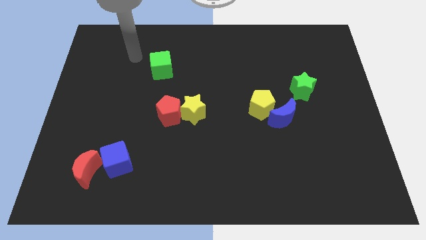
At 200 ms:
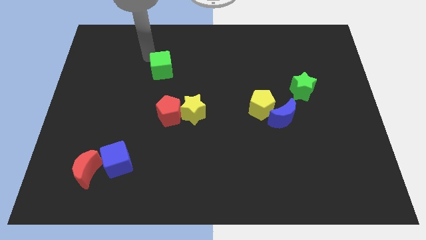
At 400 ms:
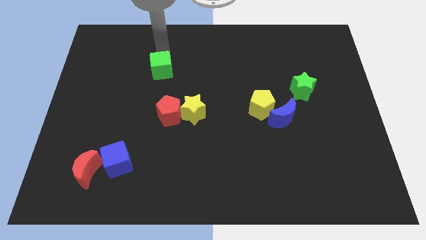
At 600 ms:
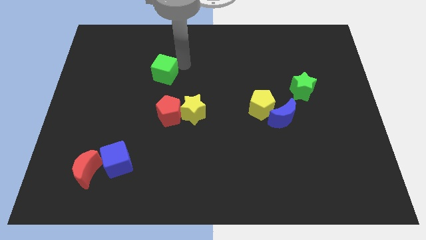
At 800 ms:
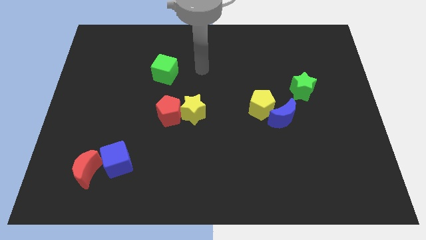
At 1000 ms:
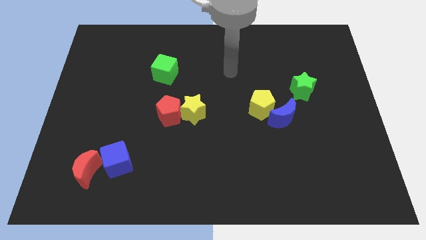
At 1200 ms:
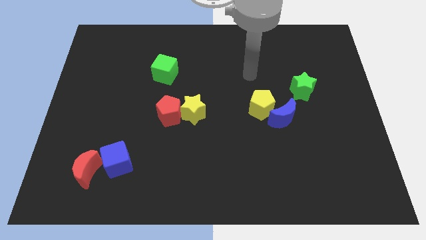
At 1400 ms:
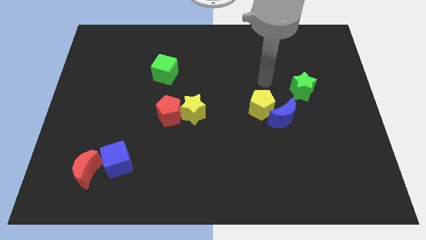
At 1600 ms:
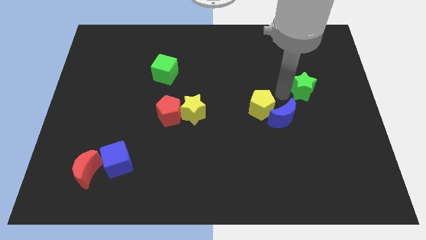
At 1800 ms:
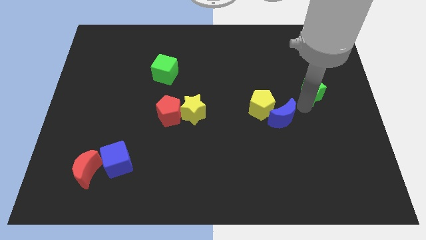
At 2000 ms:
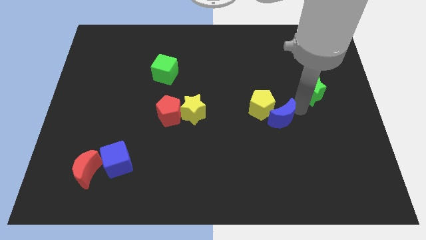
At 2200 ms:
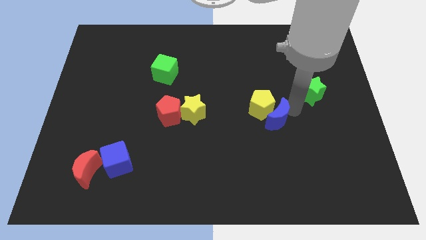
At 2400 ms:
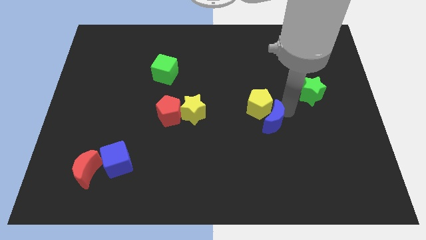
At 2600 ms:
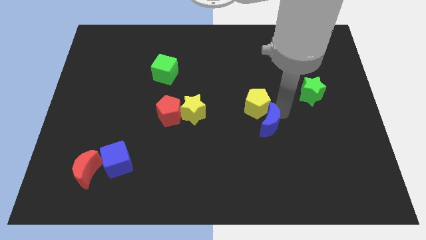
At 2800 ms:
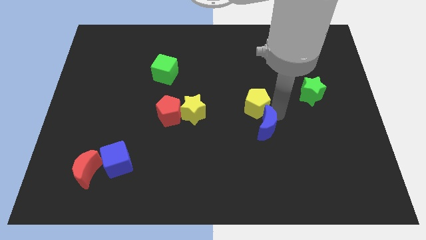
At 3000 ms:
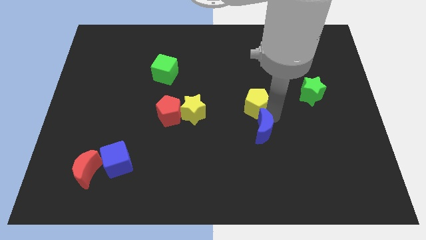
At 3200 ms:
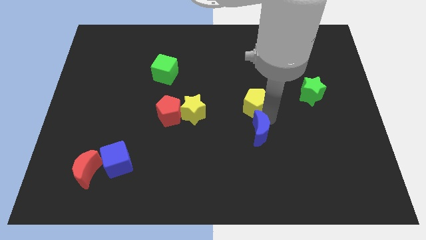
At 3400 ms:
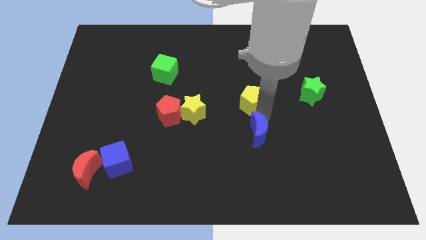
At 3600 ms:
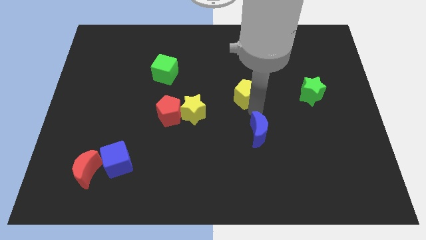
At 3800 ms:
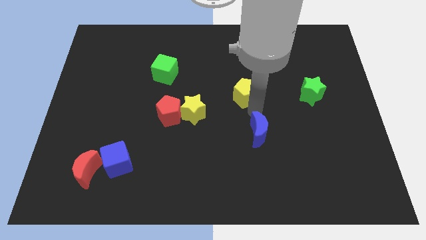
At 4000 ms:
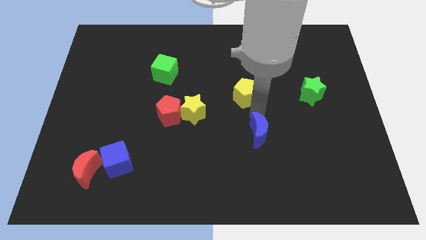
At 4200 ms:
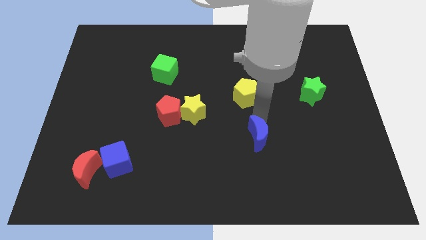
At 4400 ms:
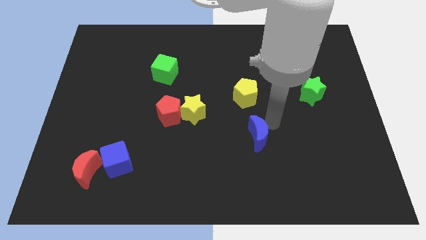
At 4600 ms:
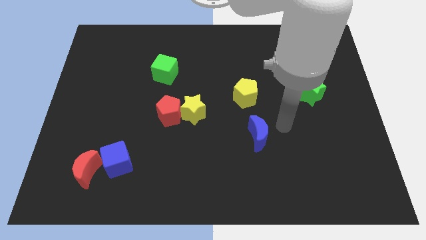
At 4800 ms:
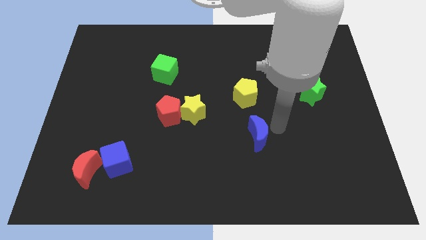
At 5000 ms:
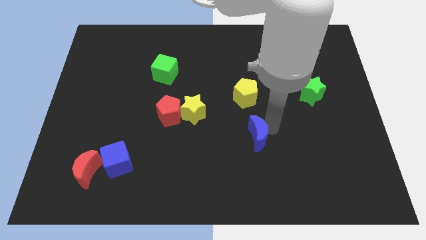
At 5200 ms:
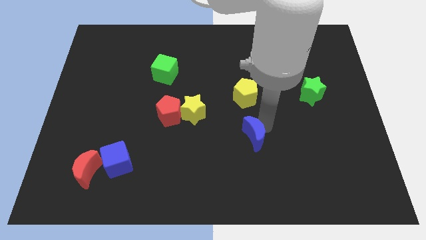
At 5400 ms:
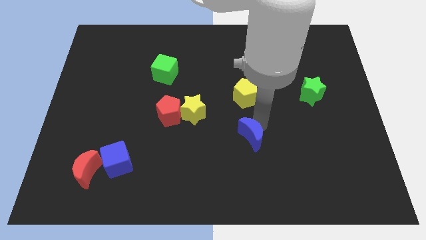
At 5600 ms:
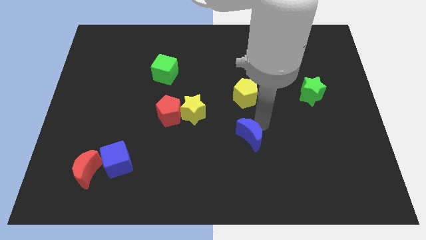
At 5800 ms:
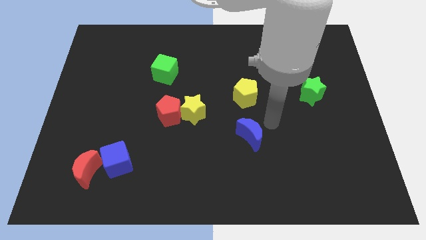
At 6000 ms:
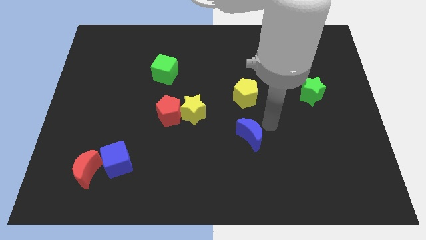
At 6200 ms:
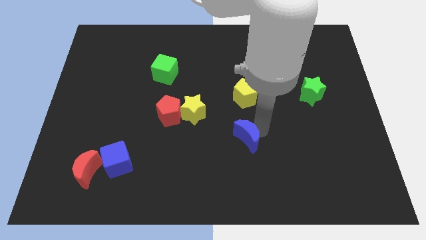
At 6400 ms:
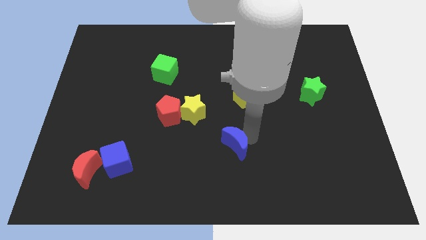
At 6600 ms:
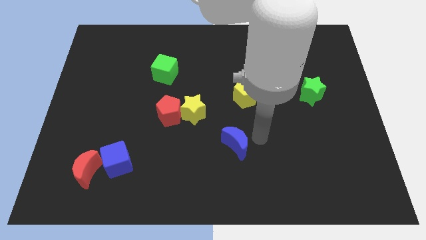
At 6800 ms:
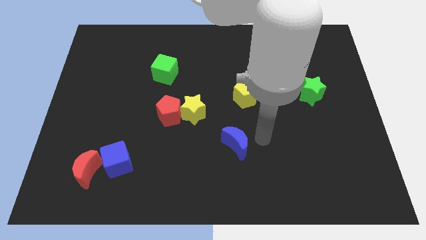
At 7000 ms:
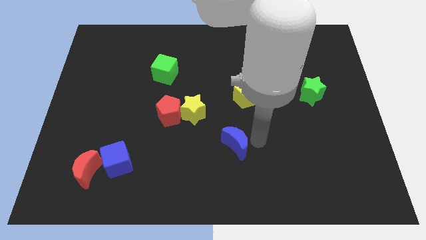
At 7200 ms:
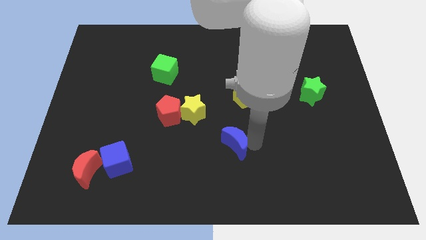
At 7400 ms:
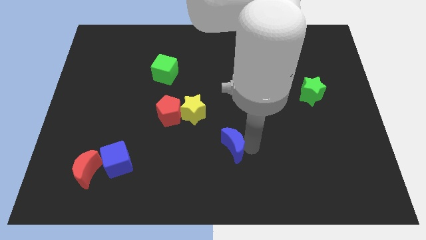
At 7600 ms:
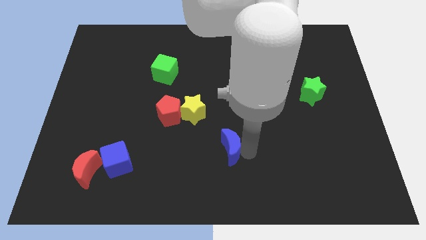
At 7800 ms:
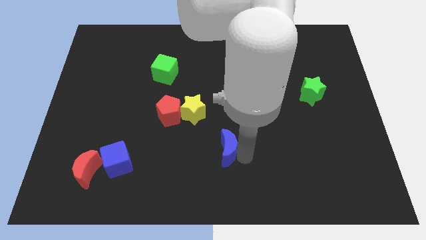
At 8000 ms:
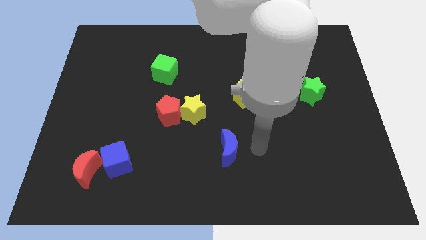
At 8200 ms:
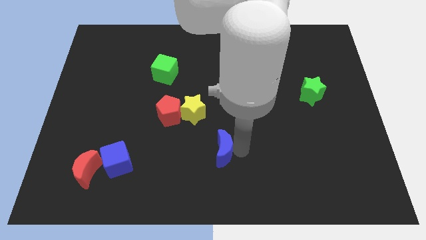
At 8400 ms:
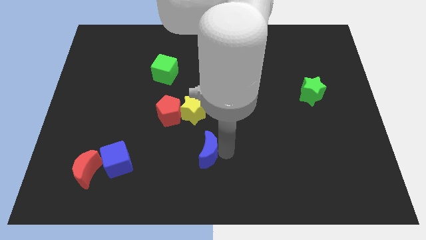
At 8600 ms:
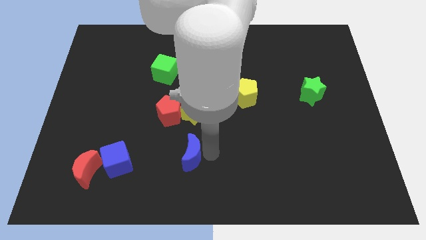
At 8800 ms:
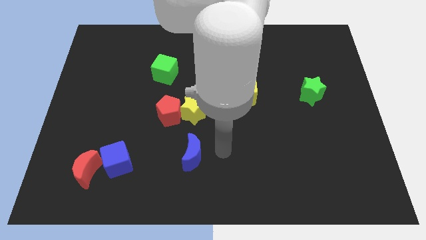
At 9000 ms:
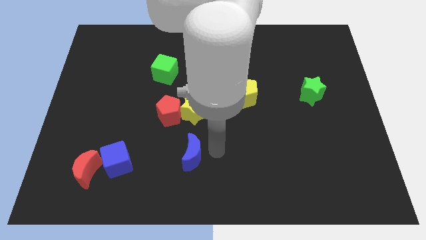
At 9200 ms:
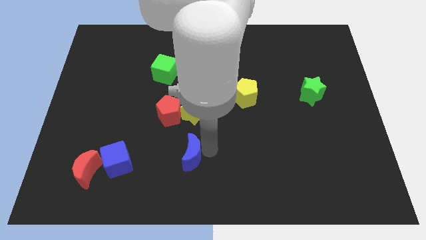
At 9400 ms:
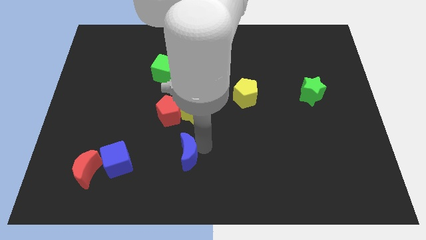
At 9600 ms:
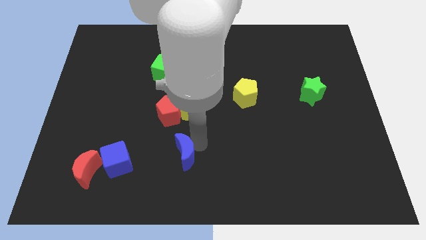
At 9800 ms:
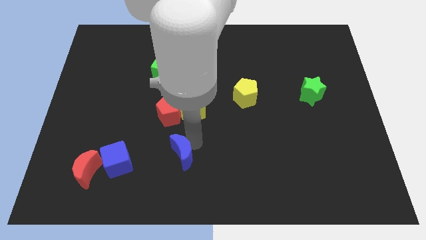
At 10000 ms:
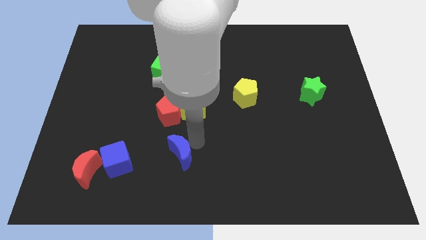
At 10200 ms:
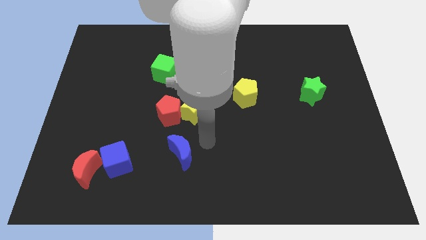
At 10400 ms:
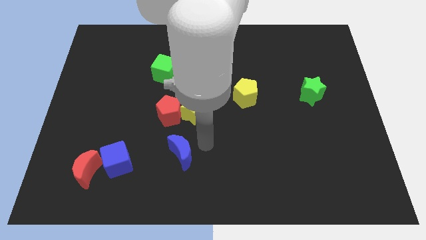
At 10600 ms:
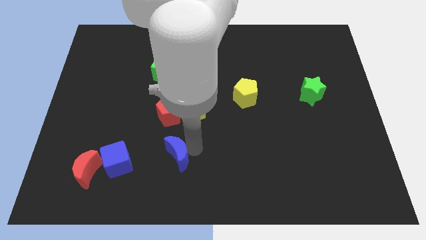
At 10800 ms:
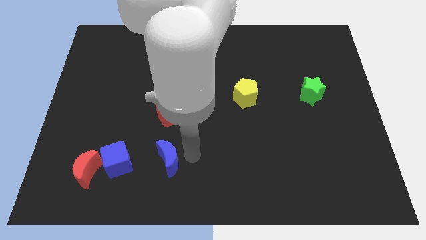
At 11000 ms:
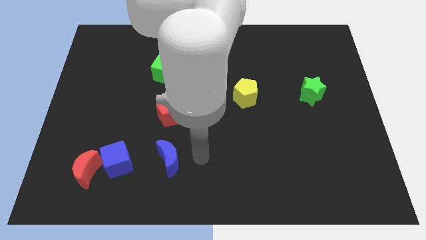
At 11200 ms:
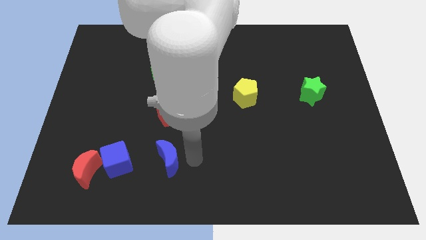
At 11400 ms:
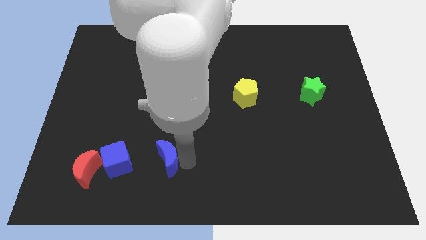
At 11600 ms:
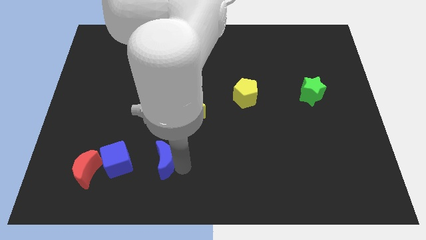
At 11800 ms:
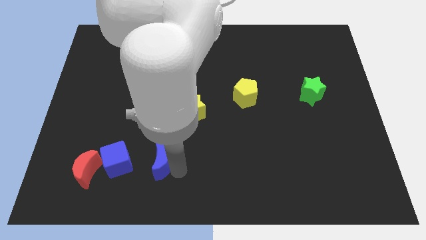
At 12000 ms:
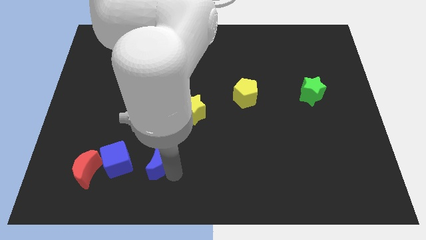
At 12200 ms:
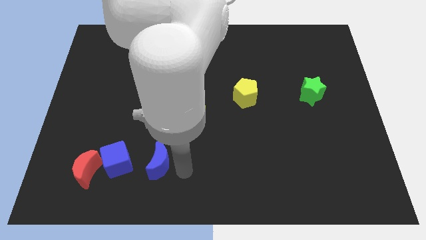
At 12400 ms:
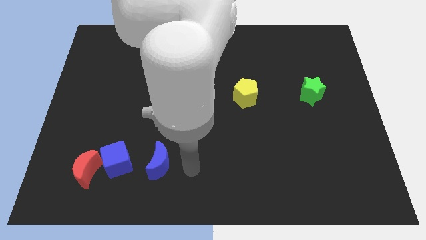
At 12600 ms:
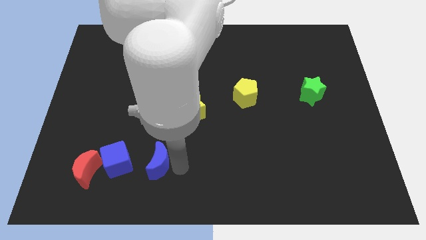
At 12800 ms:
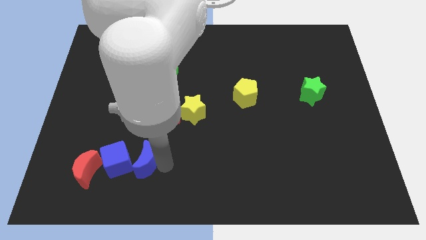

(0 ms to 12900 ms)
move the blue moon next to the blue cube

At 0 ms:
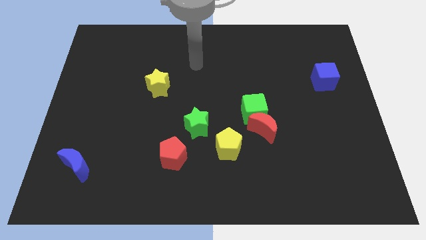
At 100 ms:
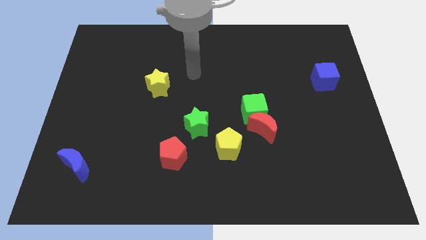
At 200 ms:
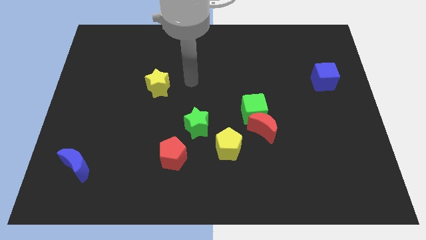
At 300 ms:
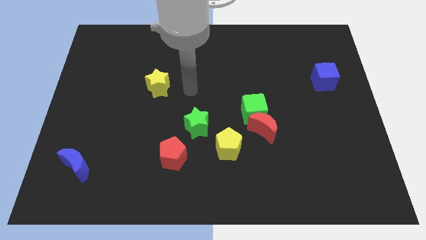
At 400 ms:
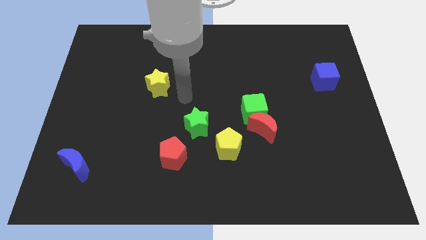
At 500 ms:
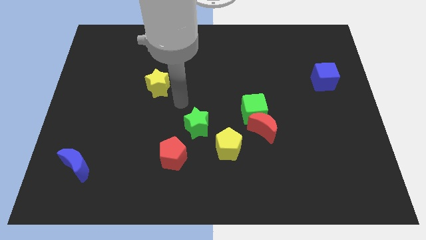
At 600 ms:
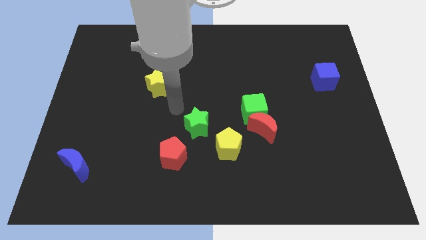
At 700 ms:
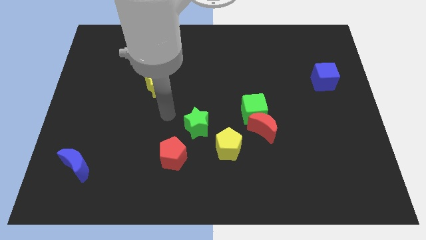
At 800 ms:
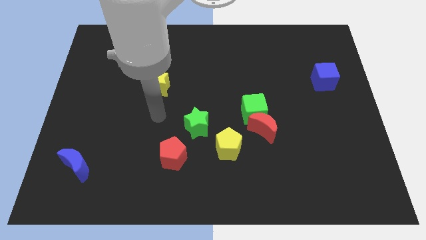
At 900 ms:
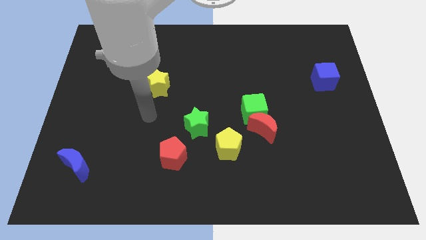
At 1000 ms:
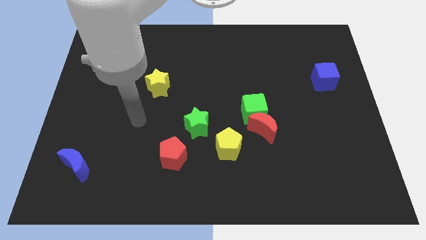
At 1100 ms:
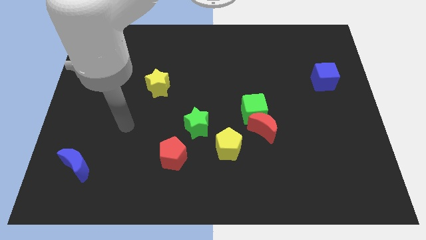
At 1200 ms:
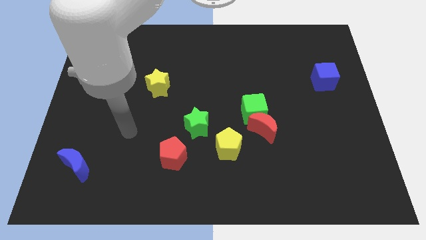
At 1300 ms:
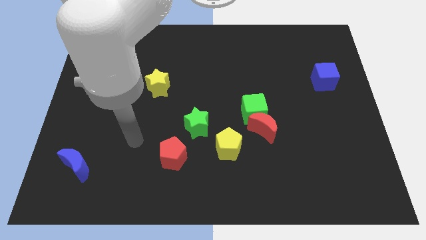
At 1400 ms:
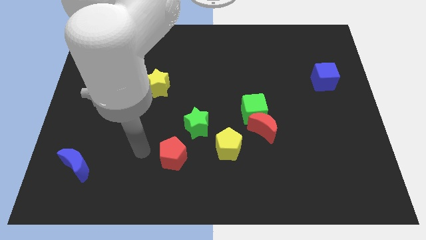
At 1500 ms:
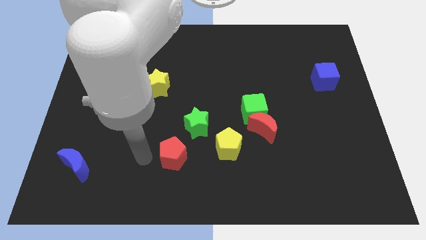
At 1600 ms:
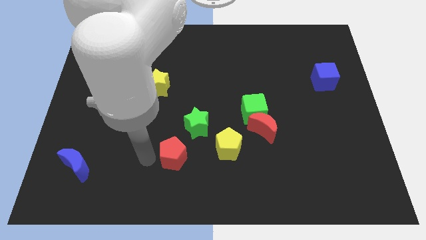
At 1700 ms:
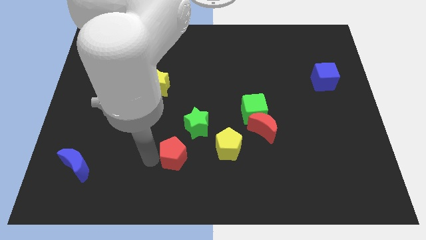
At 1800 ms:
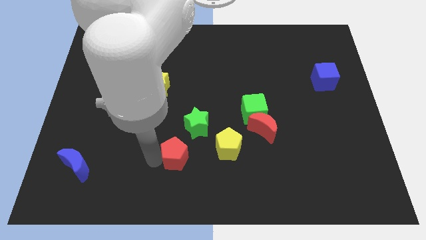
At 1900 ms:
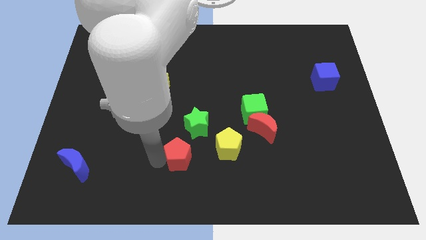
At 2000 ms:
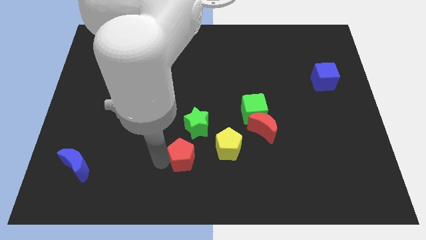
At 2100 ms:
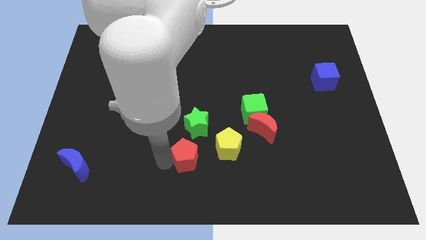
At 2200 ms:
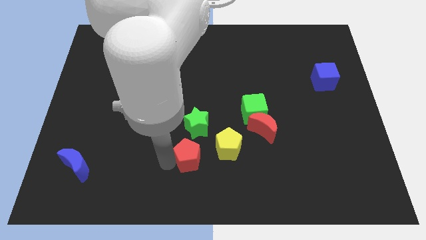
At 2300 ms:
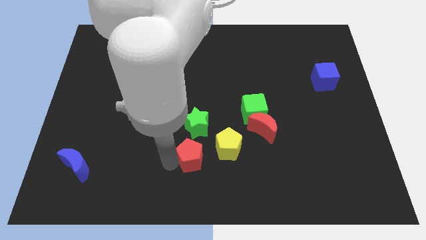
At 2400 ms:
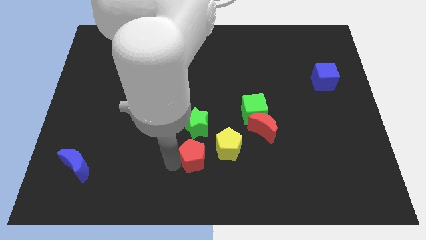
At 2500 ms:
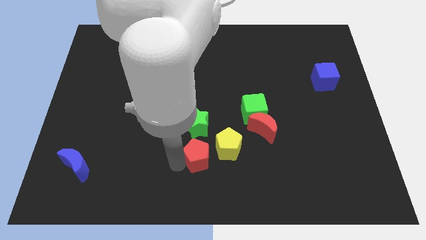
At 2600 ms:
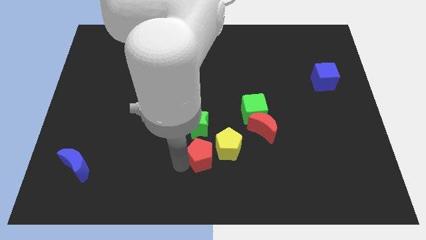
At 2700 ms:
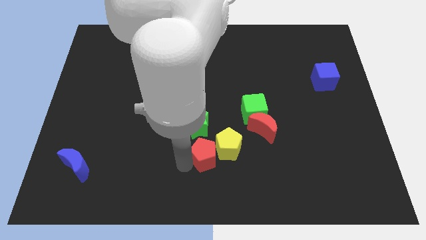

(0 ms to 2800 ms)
put the red pentagon close to the yellow pentagon
